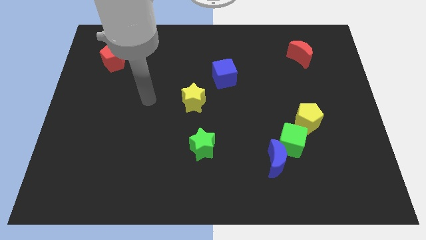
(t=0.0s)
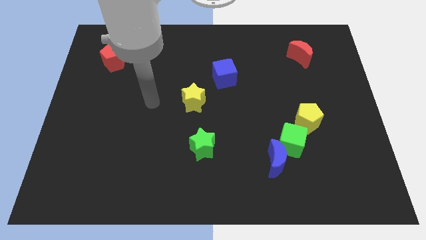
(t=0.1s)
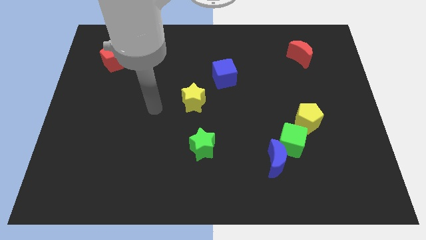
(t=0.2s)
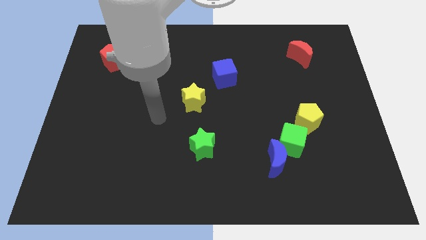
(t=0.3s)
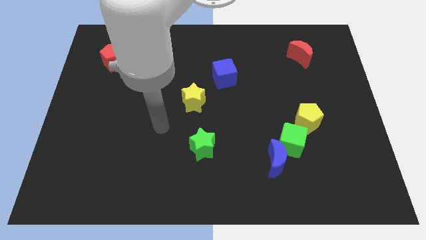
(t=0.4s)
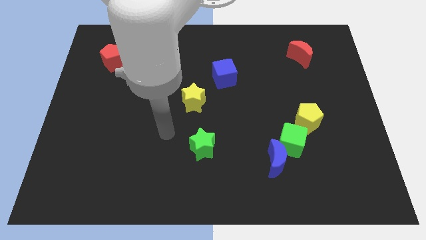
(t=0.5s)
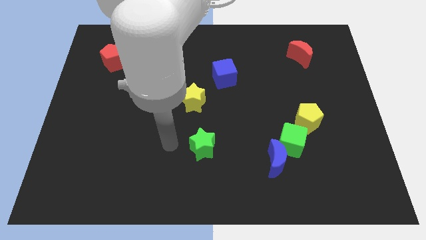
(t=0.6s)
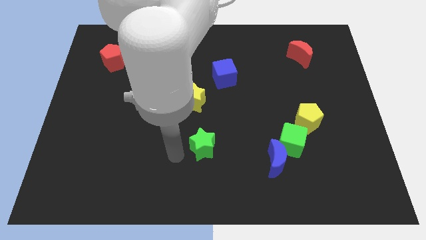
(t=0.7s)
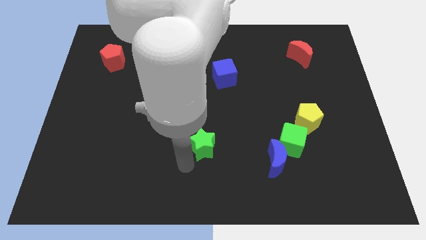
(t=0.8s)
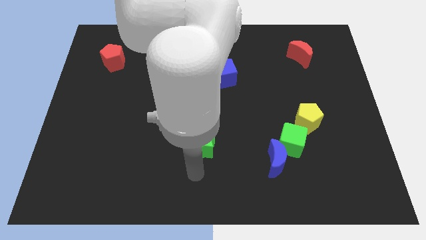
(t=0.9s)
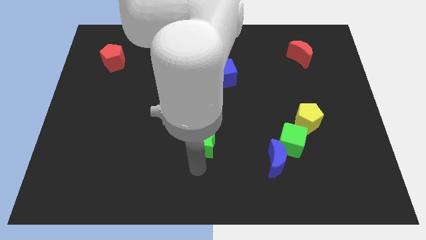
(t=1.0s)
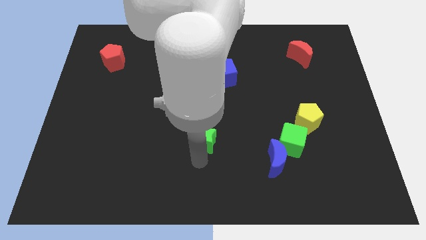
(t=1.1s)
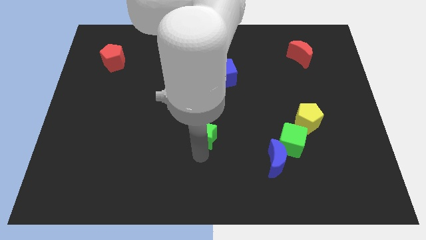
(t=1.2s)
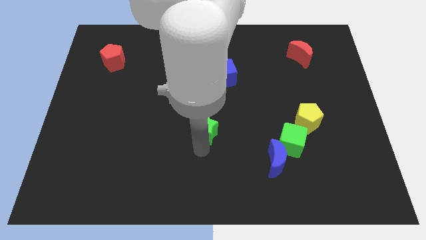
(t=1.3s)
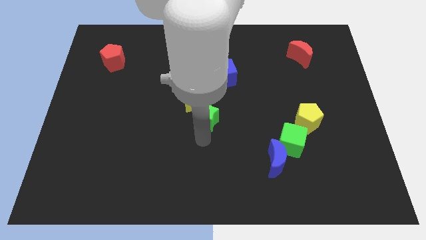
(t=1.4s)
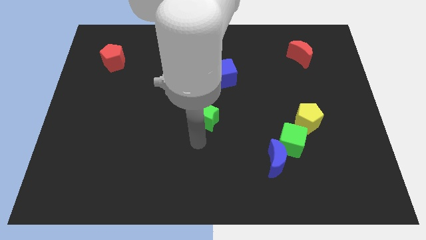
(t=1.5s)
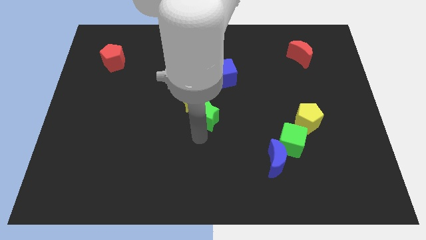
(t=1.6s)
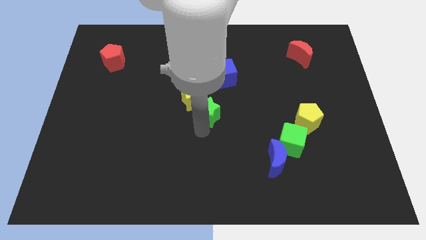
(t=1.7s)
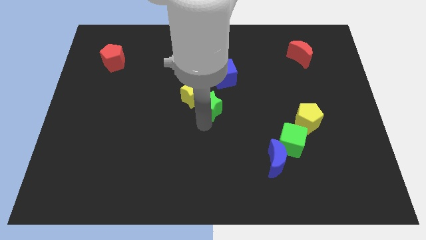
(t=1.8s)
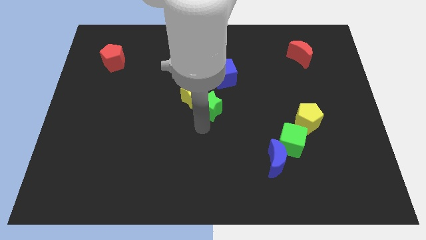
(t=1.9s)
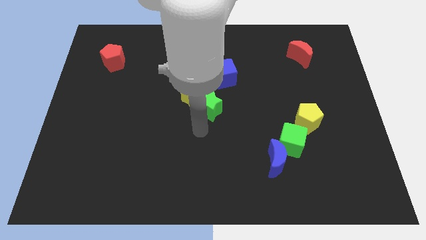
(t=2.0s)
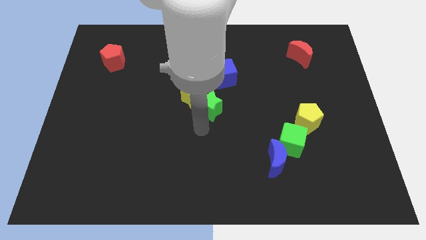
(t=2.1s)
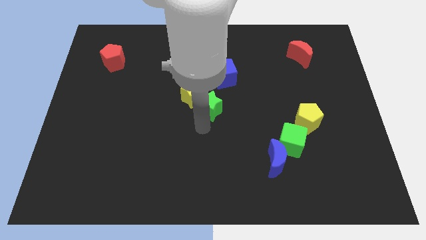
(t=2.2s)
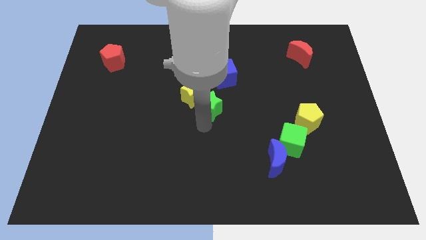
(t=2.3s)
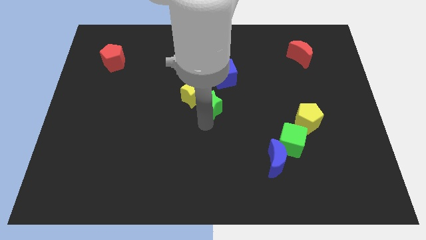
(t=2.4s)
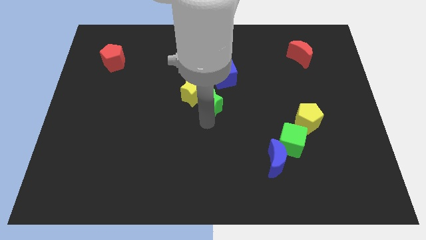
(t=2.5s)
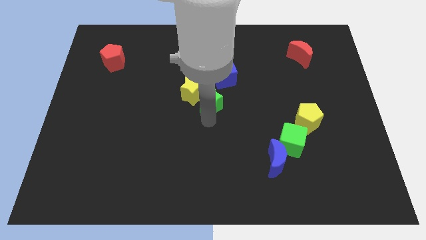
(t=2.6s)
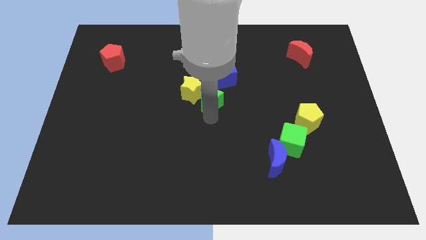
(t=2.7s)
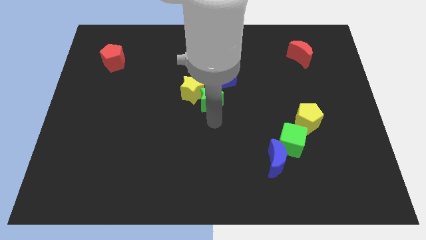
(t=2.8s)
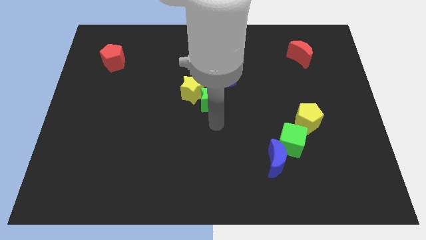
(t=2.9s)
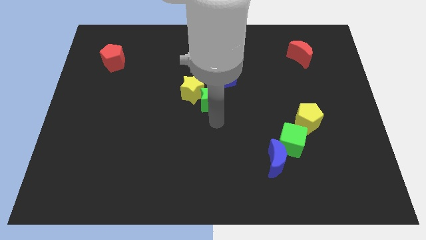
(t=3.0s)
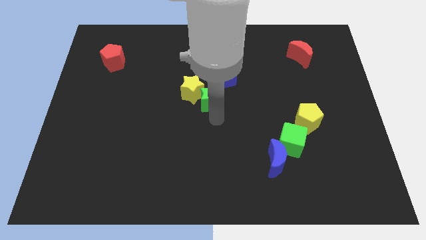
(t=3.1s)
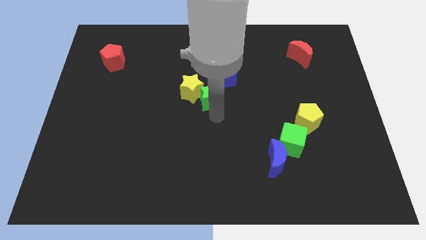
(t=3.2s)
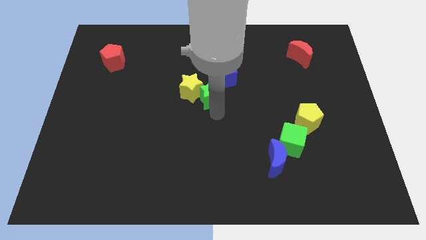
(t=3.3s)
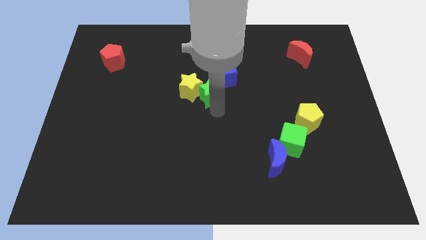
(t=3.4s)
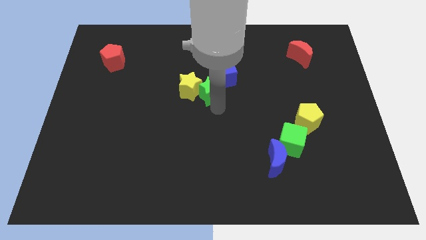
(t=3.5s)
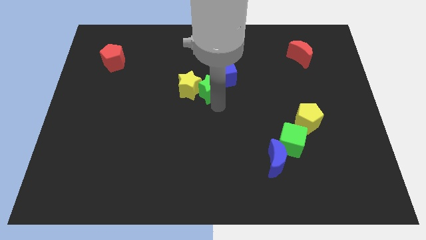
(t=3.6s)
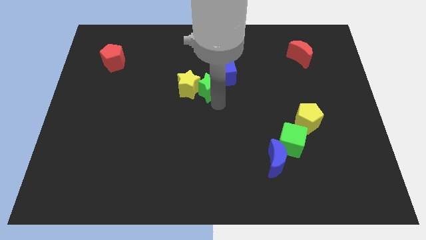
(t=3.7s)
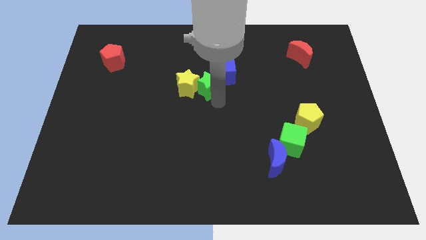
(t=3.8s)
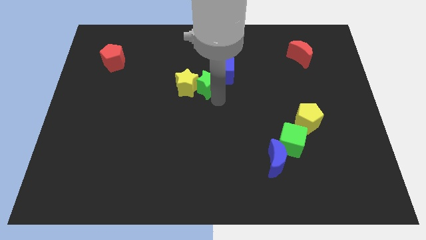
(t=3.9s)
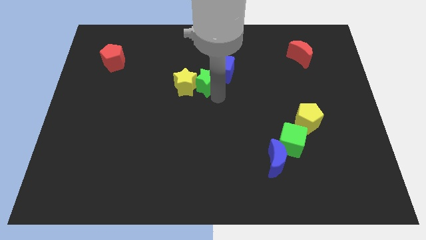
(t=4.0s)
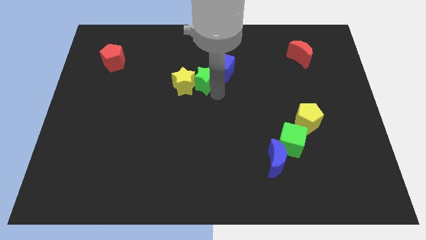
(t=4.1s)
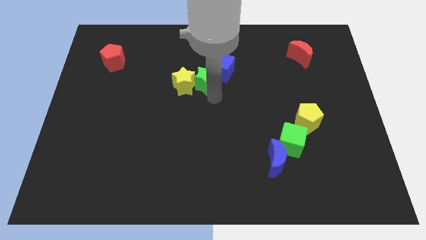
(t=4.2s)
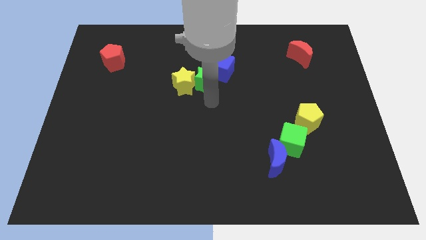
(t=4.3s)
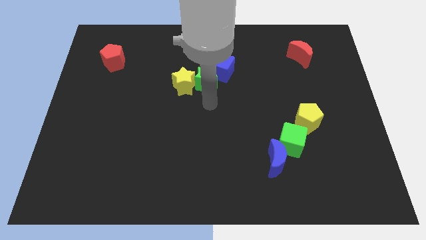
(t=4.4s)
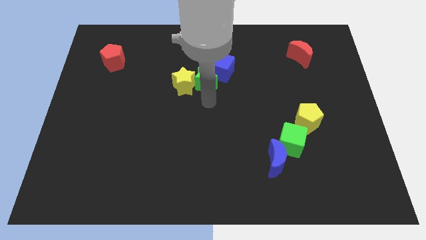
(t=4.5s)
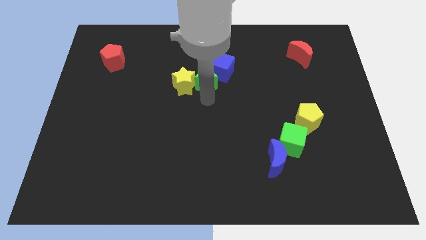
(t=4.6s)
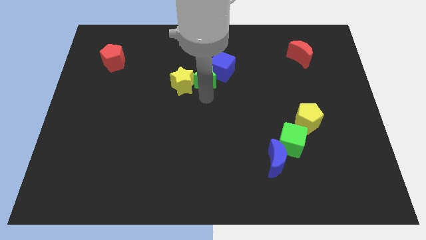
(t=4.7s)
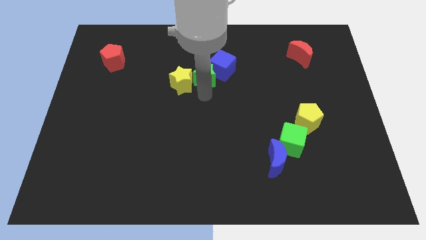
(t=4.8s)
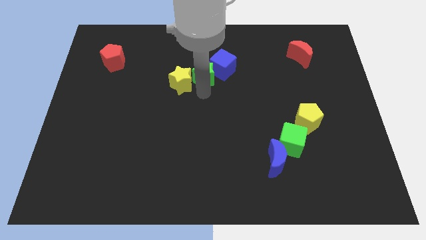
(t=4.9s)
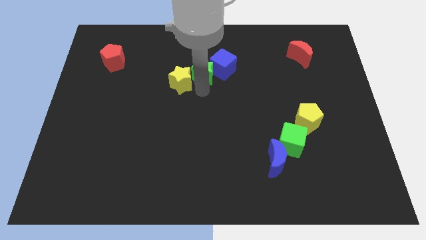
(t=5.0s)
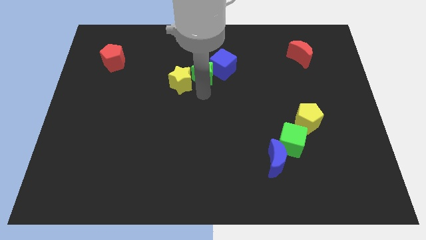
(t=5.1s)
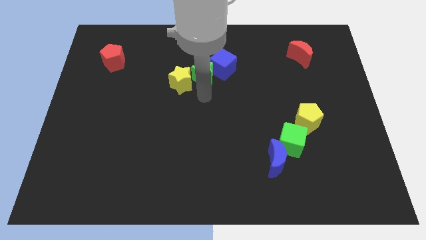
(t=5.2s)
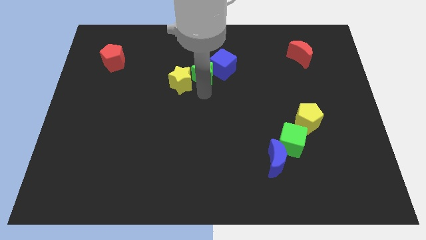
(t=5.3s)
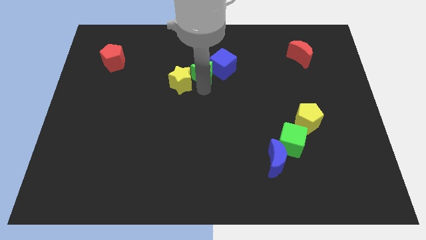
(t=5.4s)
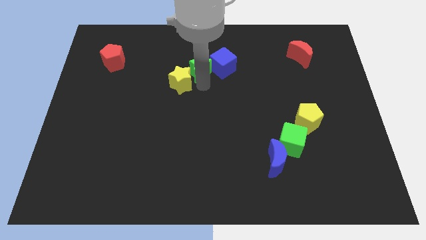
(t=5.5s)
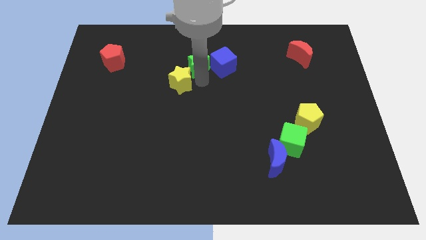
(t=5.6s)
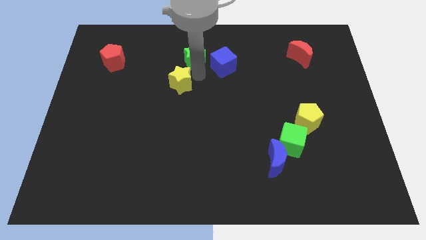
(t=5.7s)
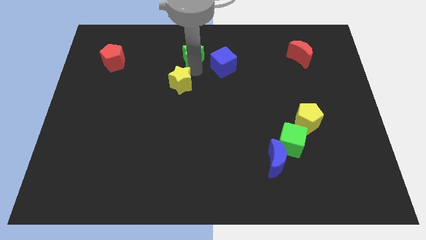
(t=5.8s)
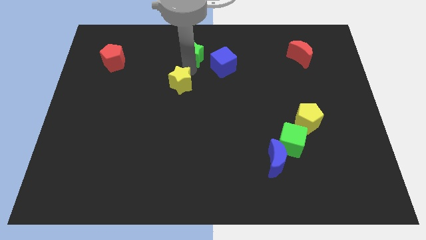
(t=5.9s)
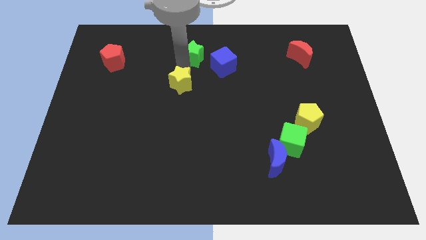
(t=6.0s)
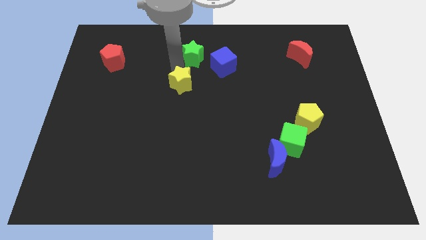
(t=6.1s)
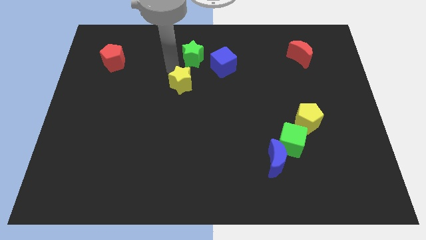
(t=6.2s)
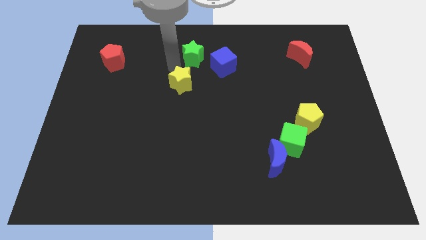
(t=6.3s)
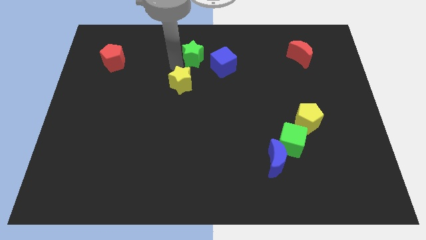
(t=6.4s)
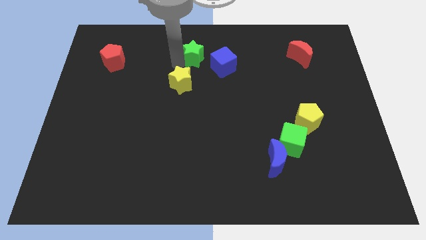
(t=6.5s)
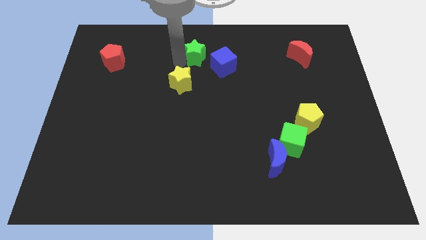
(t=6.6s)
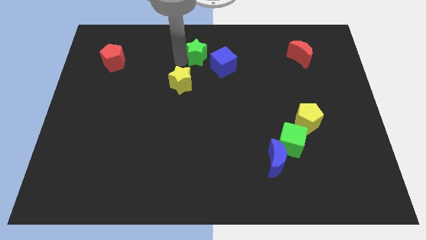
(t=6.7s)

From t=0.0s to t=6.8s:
slide the green star to the top side
